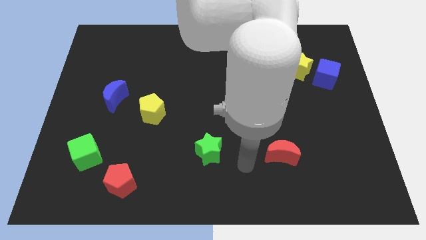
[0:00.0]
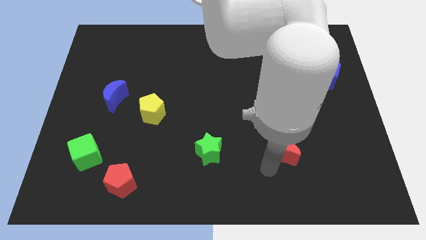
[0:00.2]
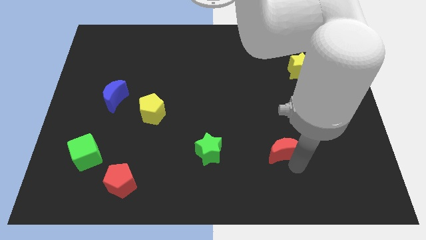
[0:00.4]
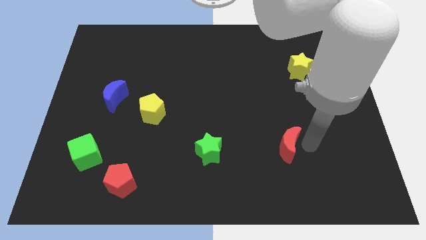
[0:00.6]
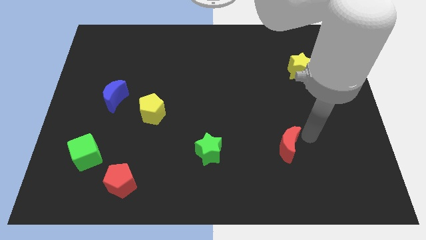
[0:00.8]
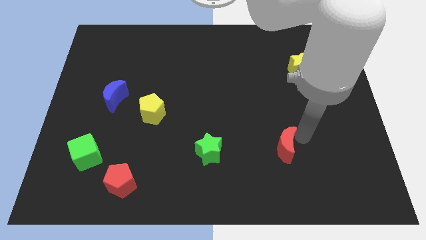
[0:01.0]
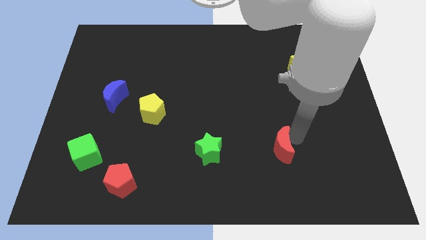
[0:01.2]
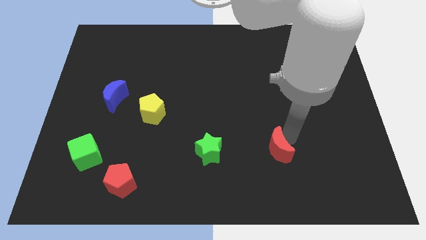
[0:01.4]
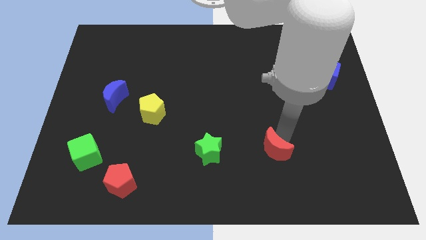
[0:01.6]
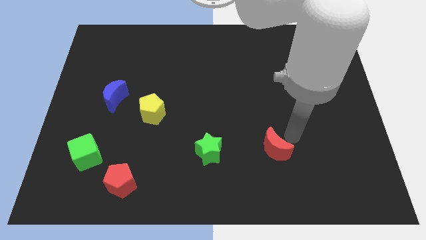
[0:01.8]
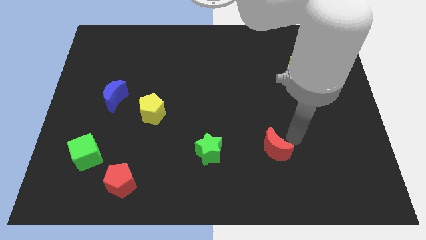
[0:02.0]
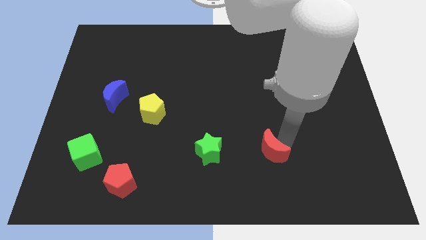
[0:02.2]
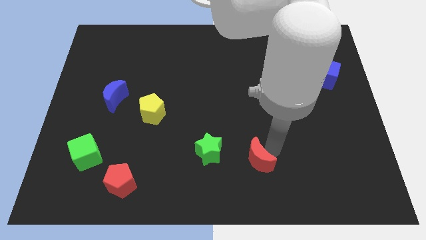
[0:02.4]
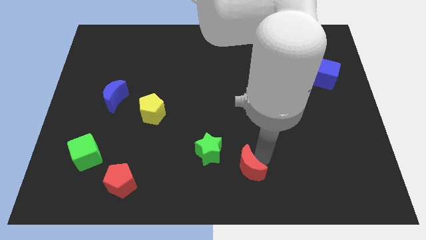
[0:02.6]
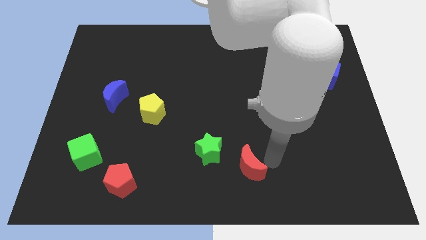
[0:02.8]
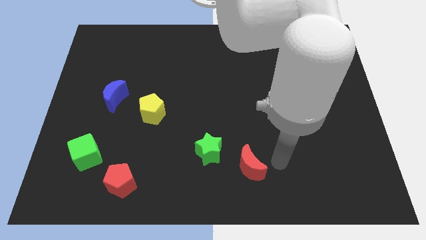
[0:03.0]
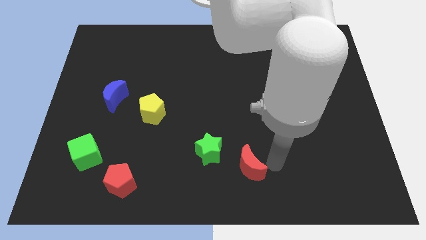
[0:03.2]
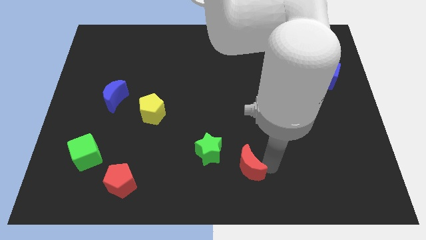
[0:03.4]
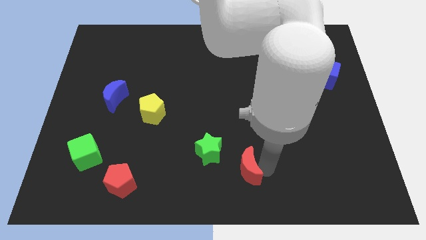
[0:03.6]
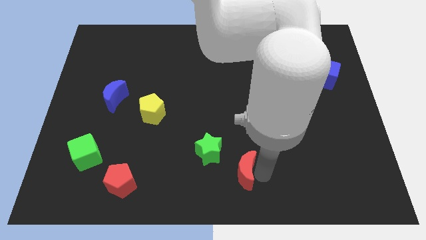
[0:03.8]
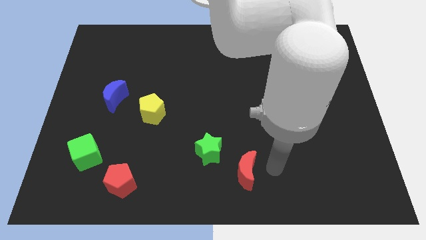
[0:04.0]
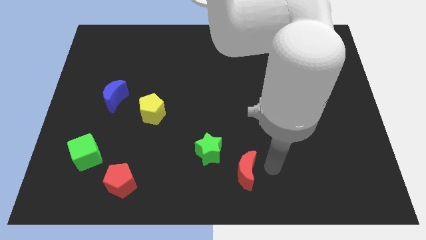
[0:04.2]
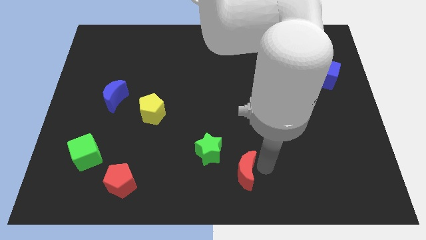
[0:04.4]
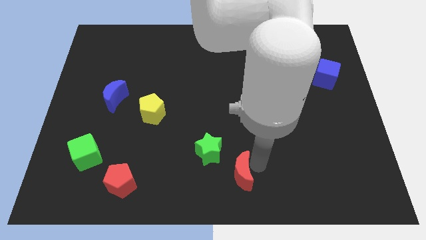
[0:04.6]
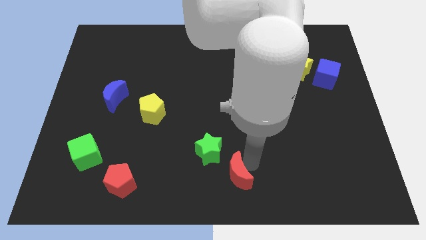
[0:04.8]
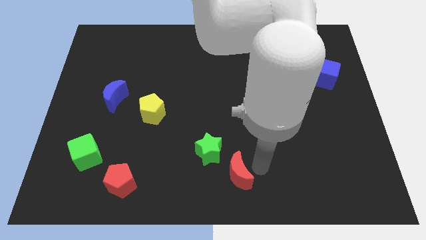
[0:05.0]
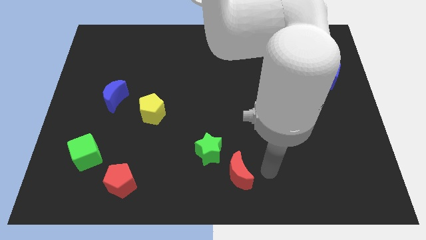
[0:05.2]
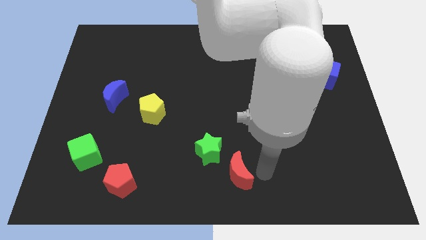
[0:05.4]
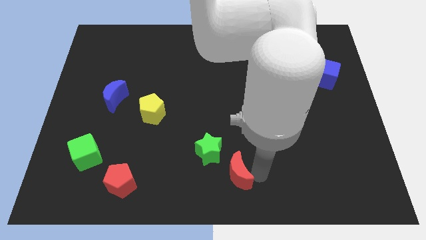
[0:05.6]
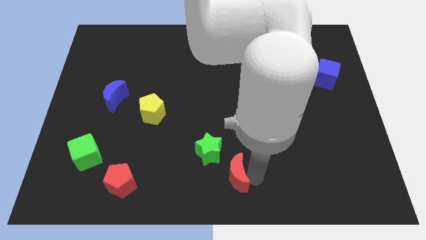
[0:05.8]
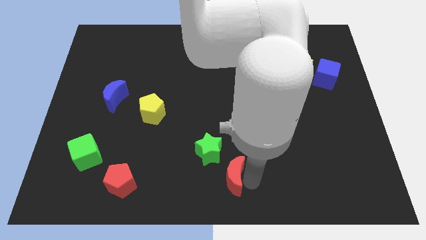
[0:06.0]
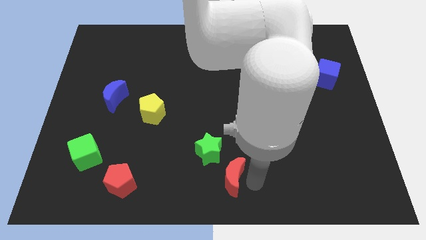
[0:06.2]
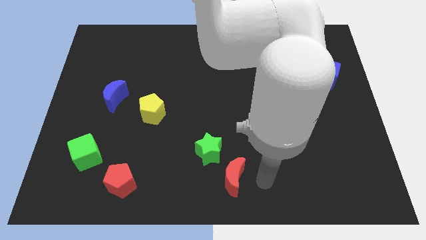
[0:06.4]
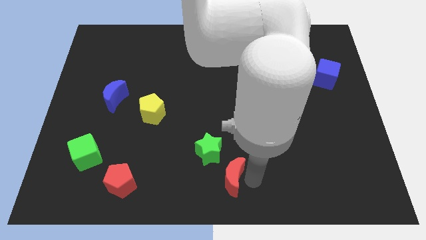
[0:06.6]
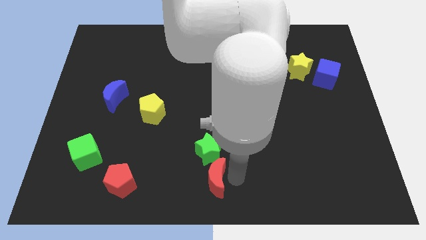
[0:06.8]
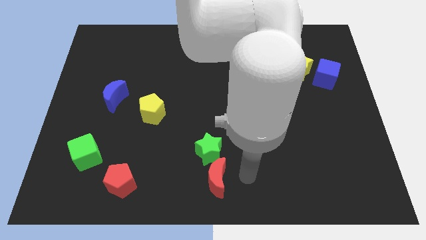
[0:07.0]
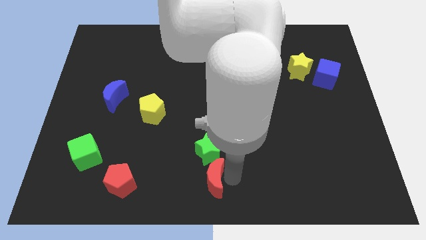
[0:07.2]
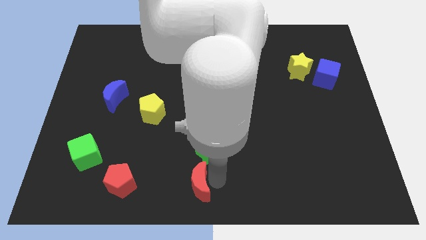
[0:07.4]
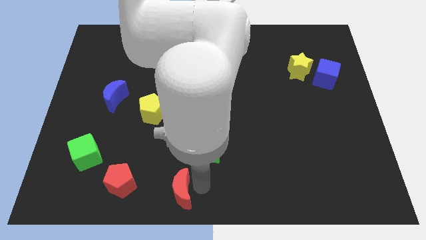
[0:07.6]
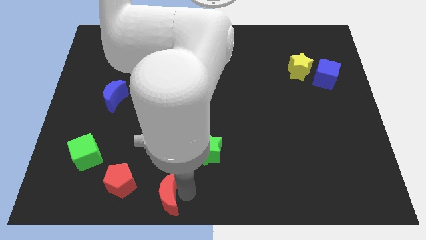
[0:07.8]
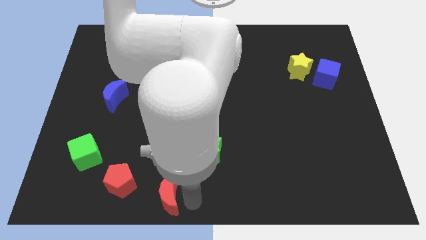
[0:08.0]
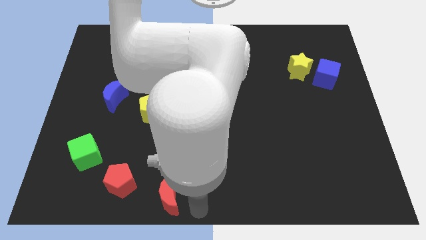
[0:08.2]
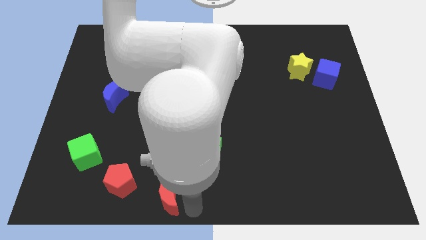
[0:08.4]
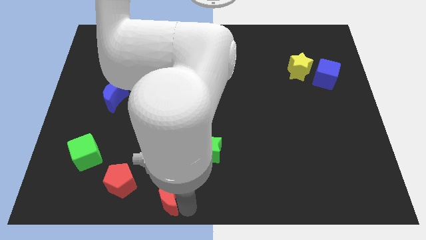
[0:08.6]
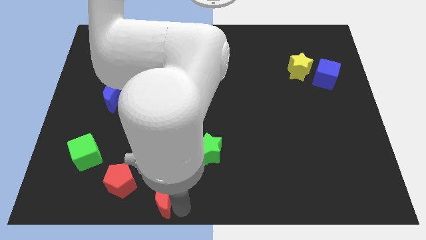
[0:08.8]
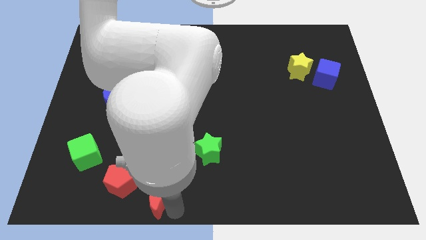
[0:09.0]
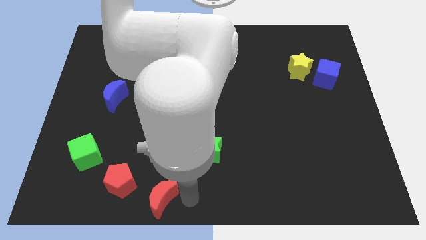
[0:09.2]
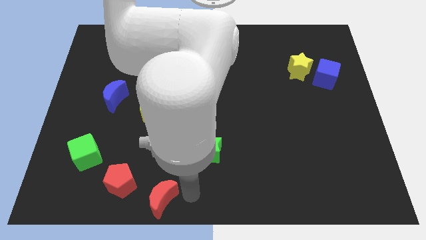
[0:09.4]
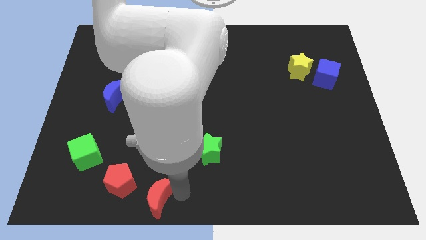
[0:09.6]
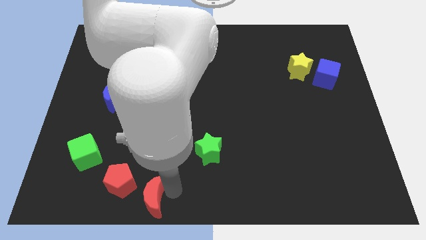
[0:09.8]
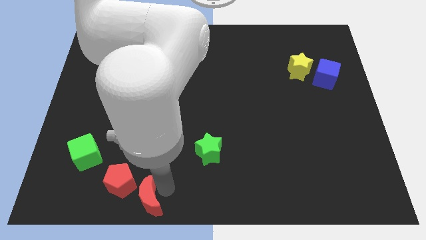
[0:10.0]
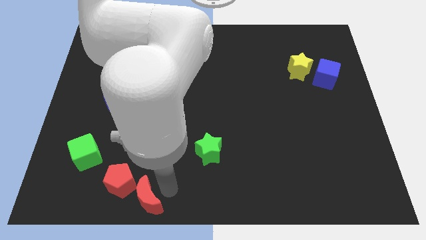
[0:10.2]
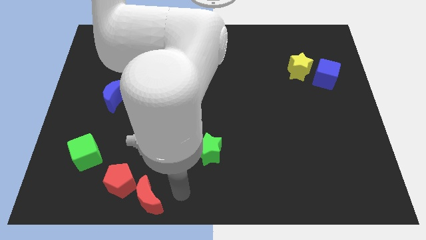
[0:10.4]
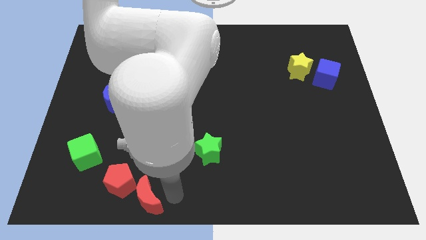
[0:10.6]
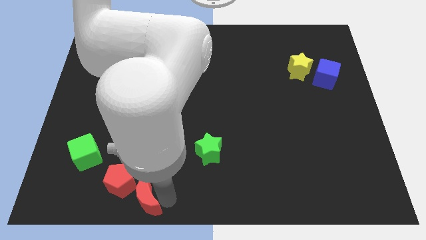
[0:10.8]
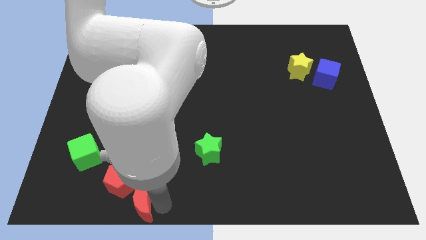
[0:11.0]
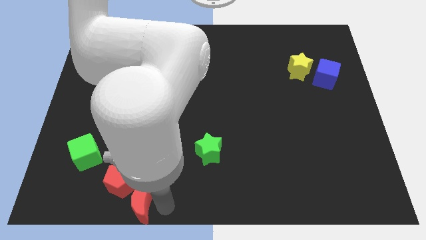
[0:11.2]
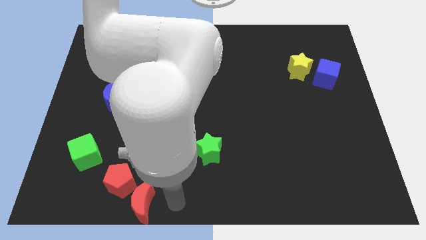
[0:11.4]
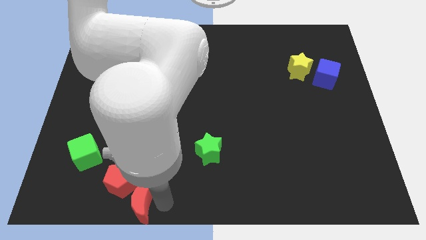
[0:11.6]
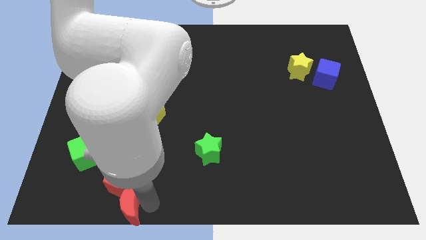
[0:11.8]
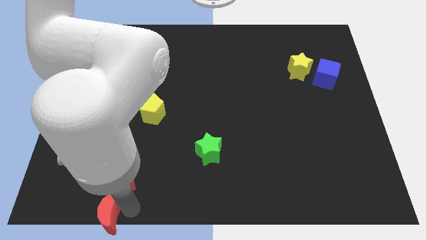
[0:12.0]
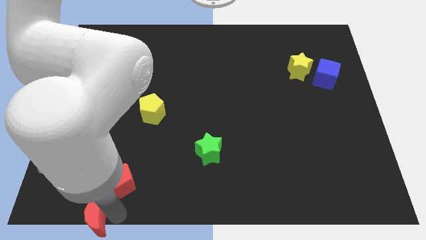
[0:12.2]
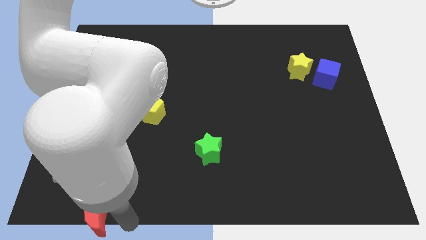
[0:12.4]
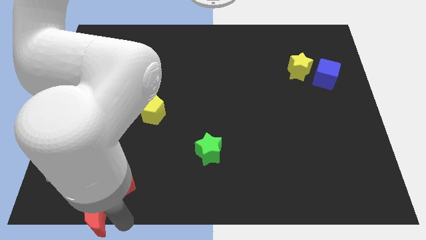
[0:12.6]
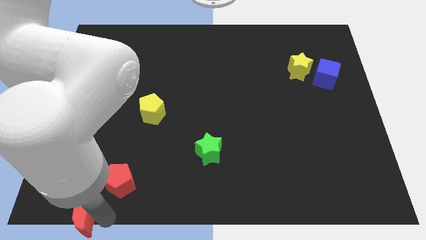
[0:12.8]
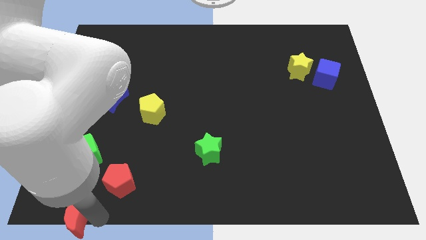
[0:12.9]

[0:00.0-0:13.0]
push the red moon to the bottom left corner

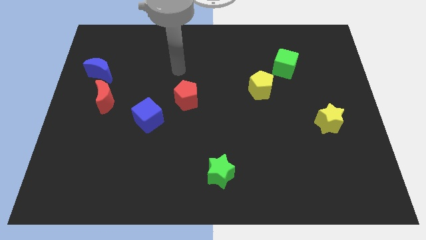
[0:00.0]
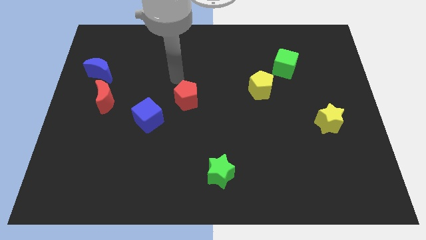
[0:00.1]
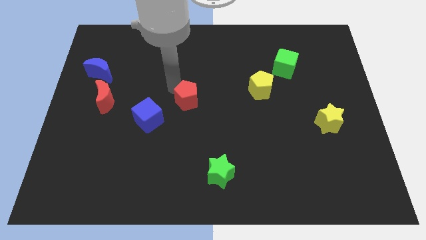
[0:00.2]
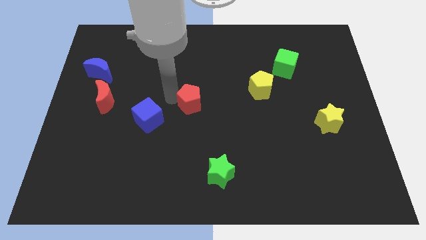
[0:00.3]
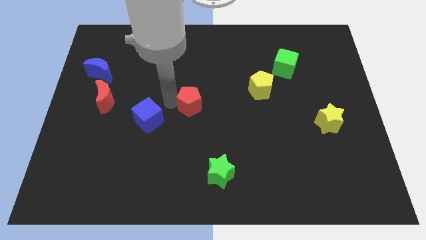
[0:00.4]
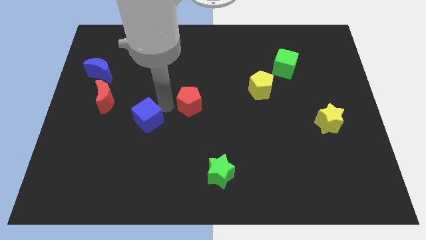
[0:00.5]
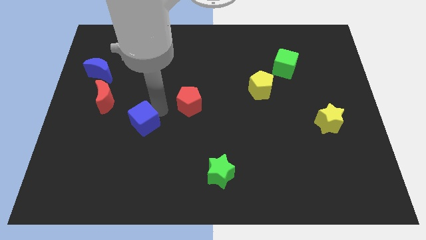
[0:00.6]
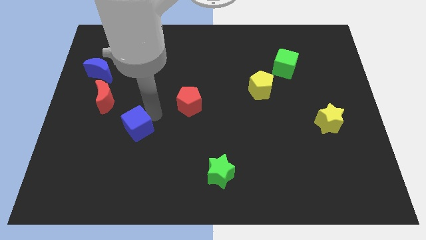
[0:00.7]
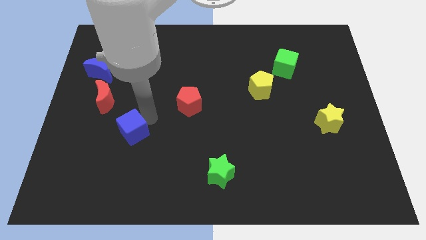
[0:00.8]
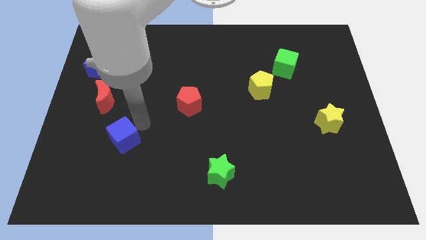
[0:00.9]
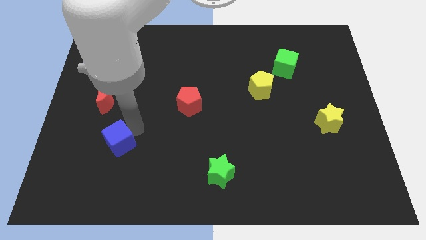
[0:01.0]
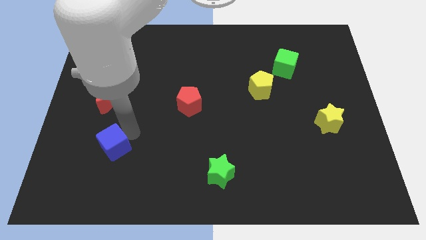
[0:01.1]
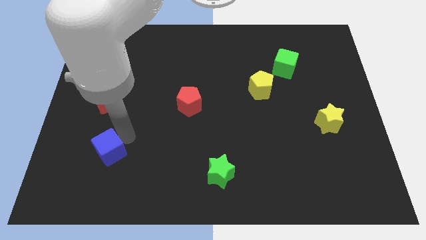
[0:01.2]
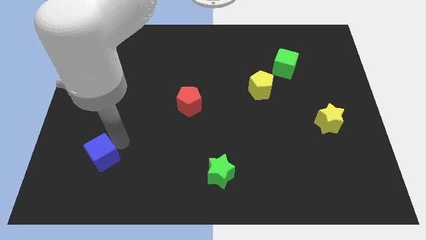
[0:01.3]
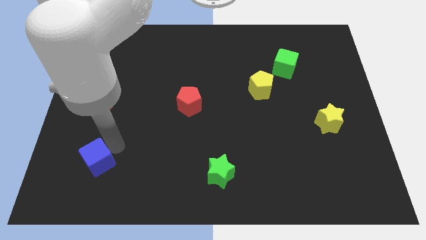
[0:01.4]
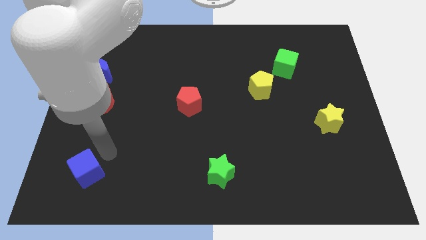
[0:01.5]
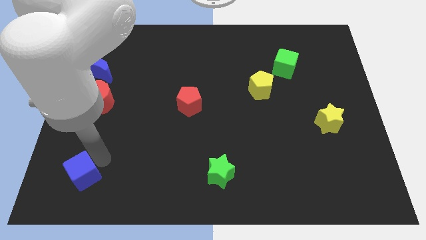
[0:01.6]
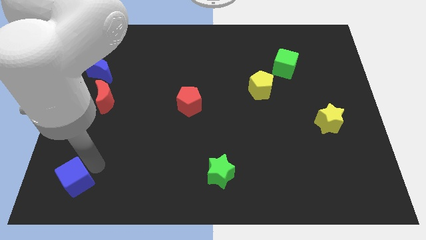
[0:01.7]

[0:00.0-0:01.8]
push the blue cube to the bottom left corner
